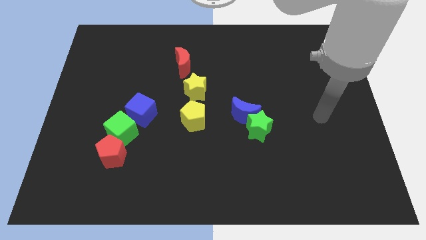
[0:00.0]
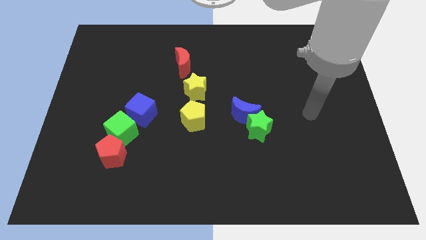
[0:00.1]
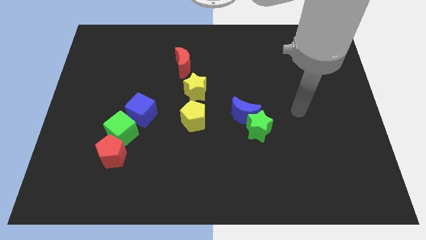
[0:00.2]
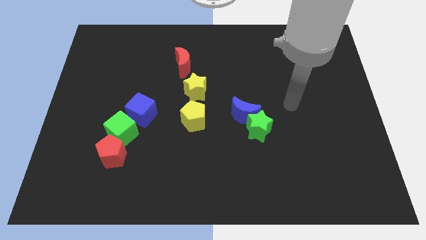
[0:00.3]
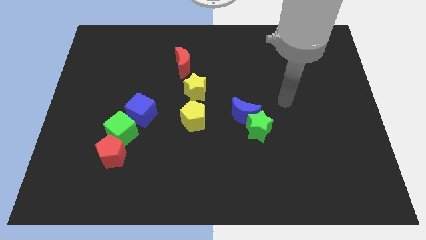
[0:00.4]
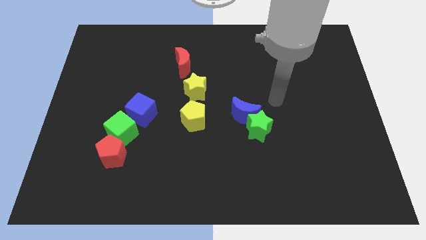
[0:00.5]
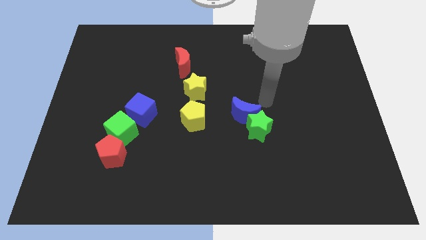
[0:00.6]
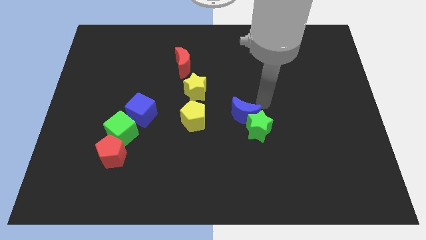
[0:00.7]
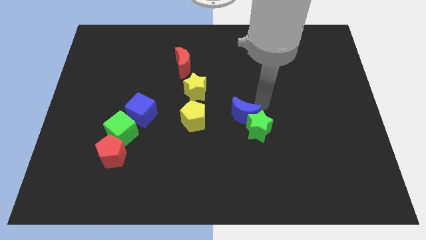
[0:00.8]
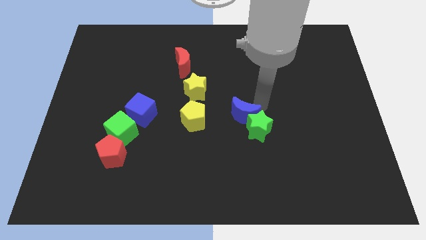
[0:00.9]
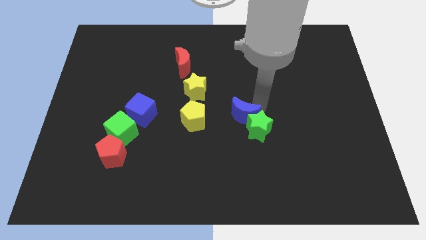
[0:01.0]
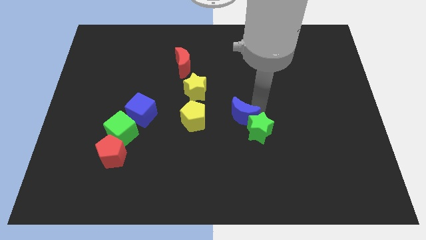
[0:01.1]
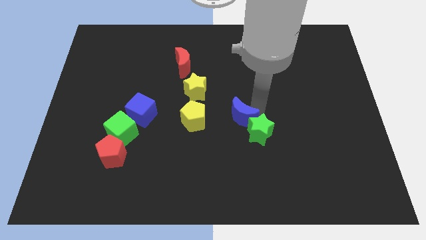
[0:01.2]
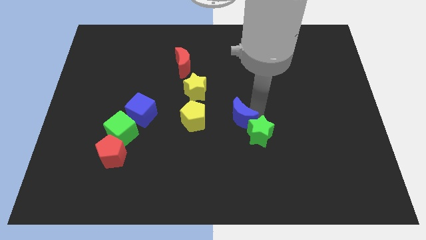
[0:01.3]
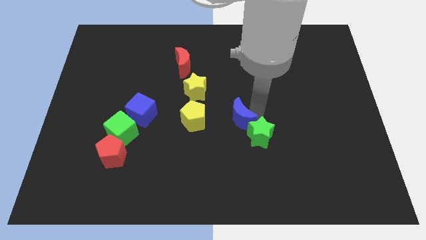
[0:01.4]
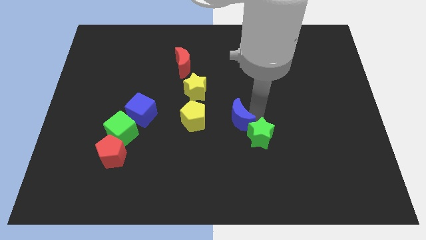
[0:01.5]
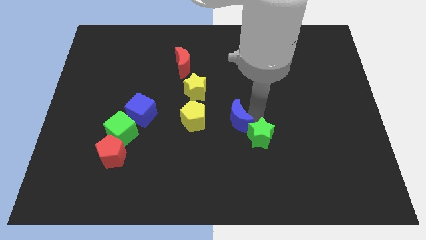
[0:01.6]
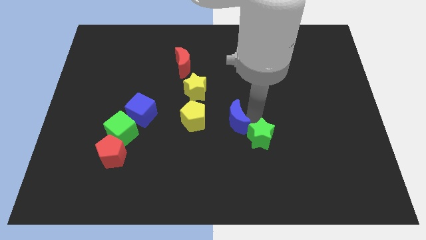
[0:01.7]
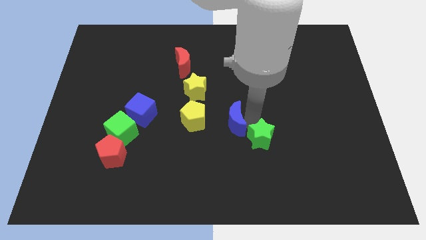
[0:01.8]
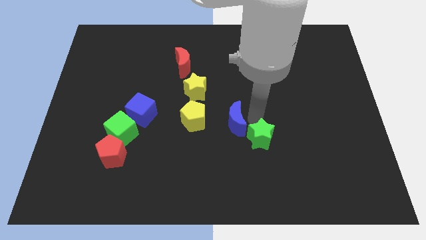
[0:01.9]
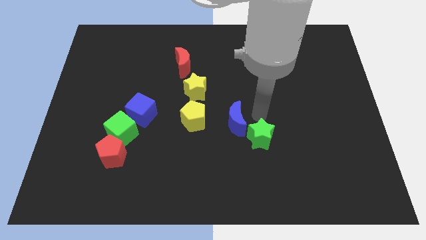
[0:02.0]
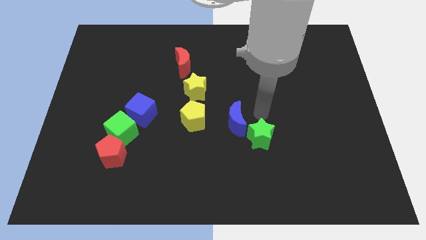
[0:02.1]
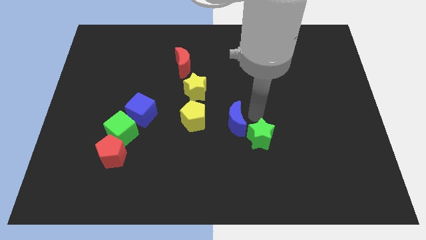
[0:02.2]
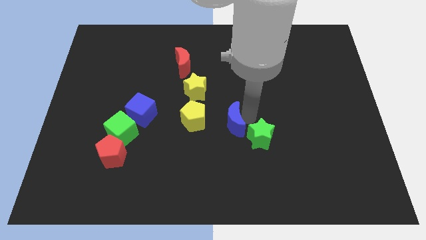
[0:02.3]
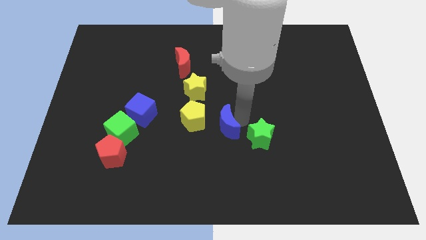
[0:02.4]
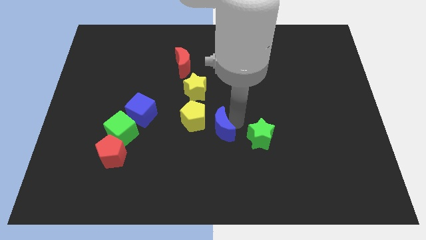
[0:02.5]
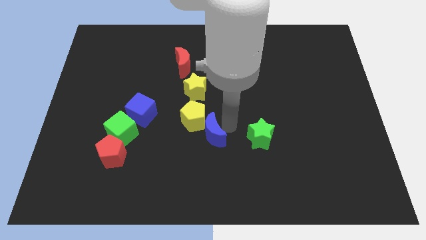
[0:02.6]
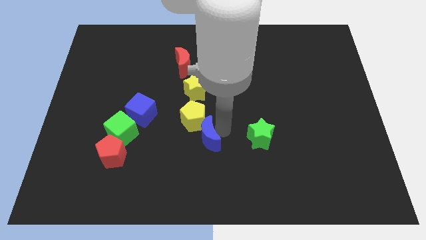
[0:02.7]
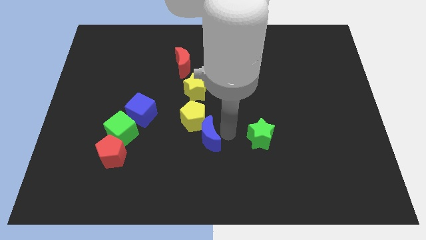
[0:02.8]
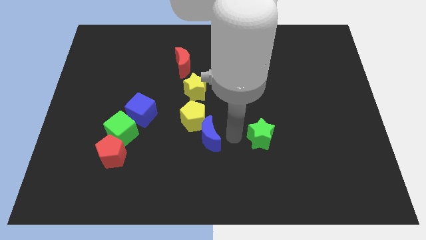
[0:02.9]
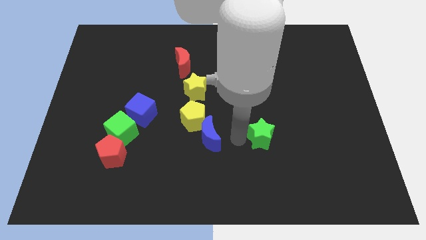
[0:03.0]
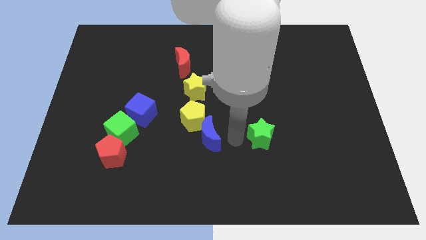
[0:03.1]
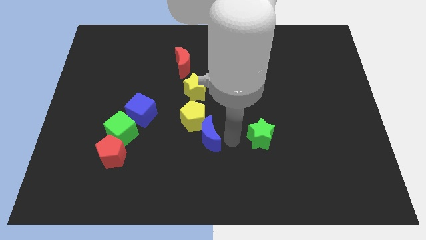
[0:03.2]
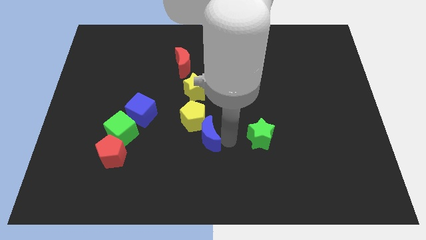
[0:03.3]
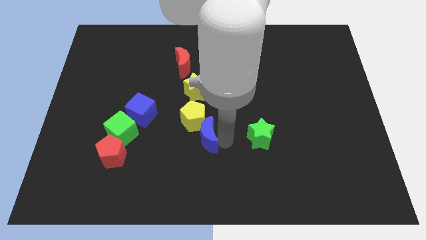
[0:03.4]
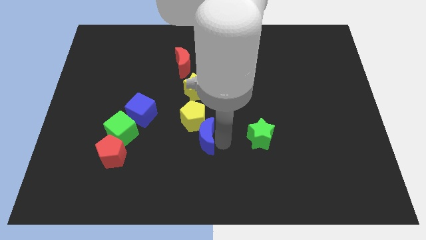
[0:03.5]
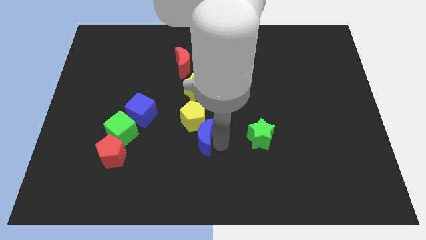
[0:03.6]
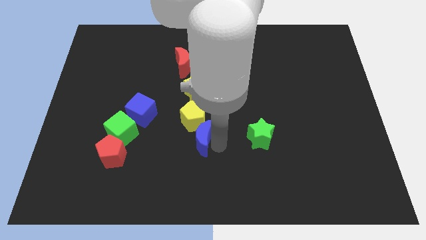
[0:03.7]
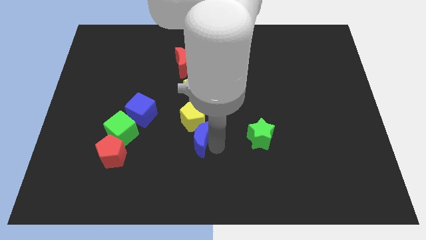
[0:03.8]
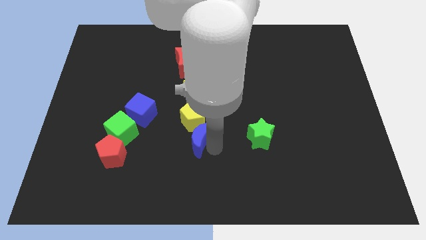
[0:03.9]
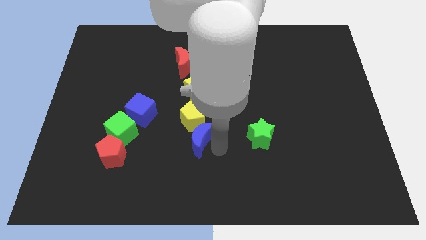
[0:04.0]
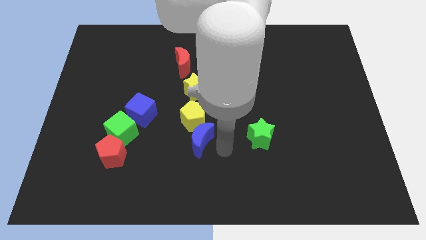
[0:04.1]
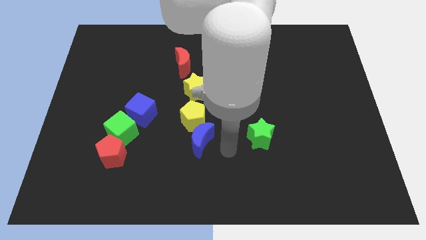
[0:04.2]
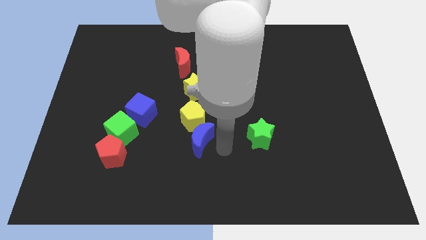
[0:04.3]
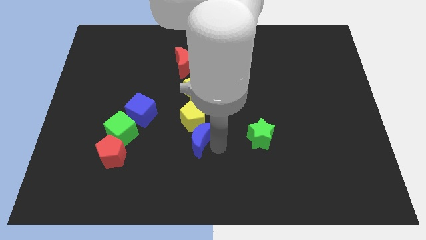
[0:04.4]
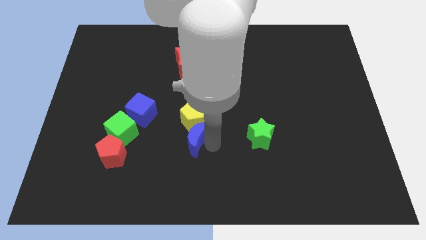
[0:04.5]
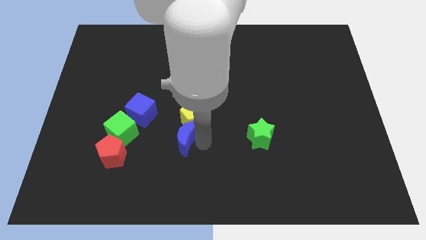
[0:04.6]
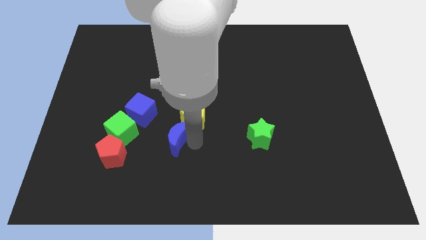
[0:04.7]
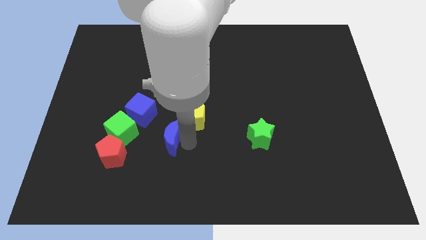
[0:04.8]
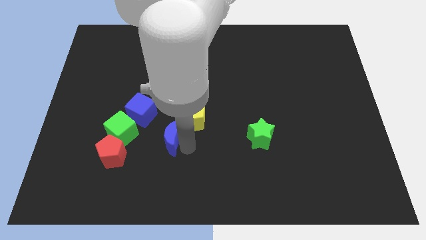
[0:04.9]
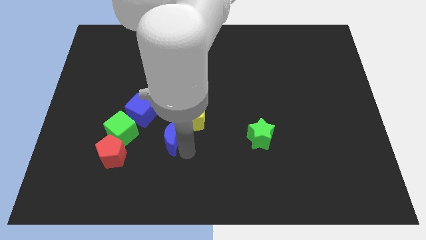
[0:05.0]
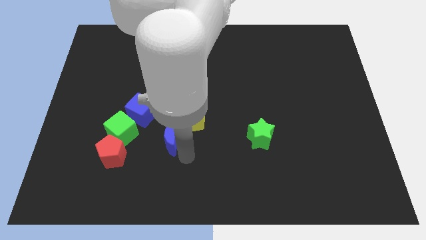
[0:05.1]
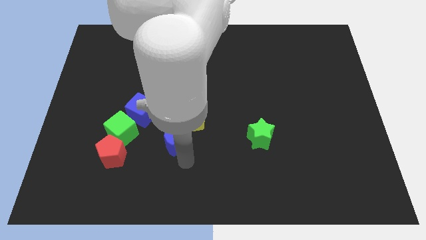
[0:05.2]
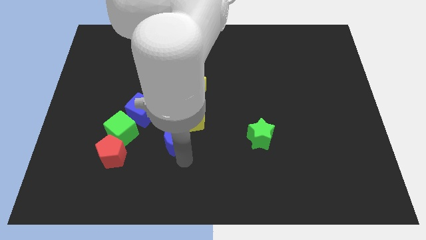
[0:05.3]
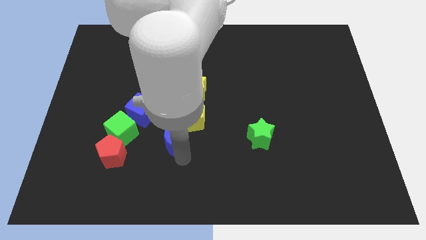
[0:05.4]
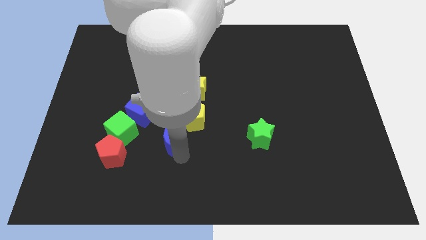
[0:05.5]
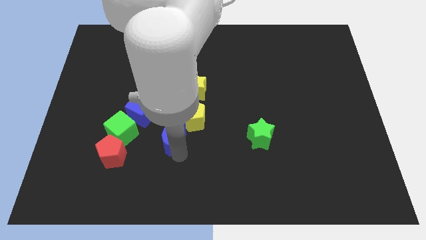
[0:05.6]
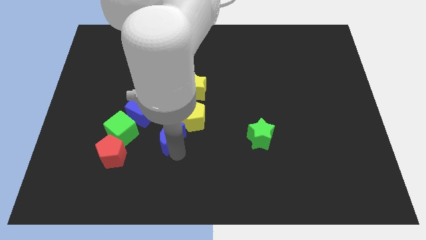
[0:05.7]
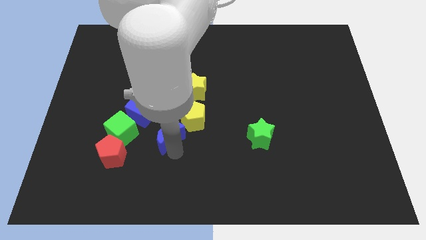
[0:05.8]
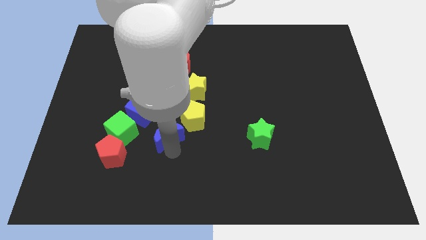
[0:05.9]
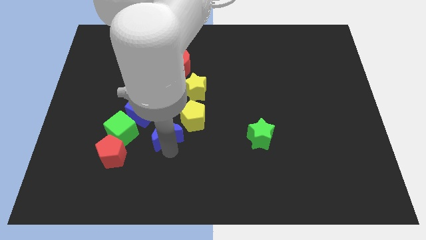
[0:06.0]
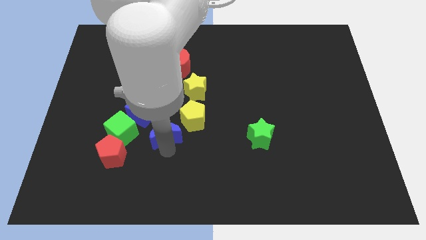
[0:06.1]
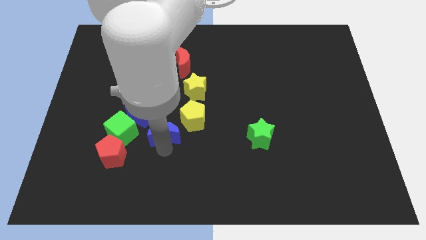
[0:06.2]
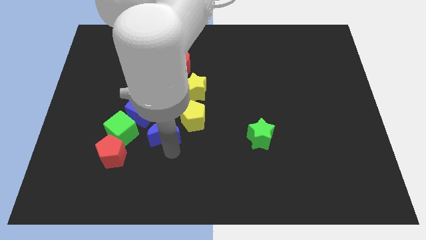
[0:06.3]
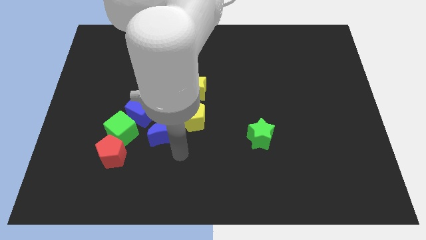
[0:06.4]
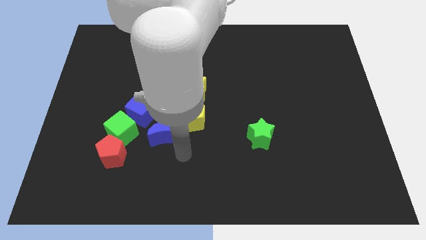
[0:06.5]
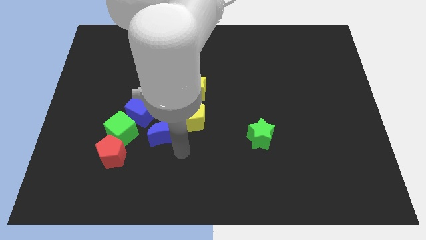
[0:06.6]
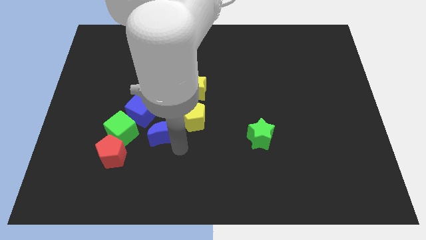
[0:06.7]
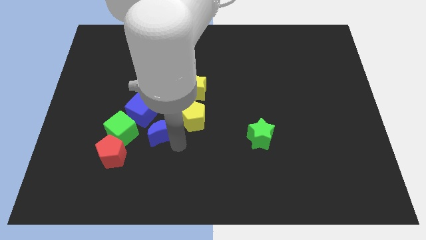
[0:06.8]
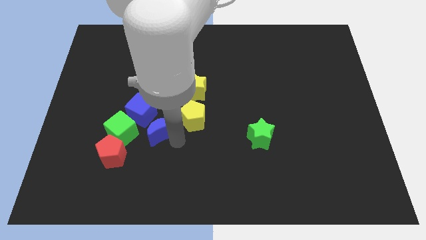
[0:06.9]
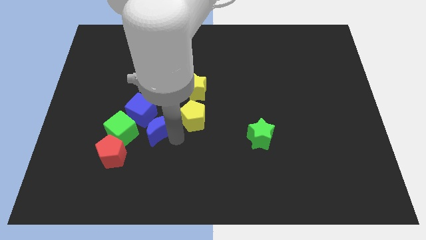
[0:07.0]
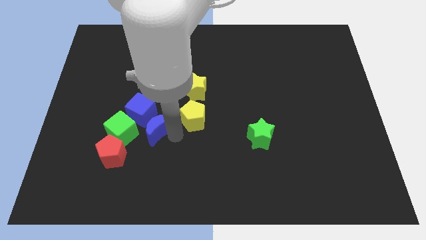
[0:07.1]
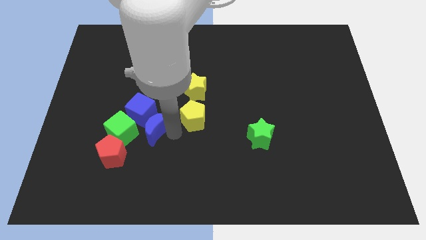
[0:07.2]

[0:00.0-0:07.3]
push the blue moon next to the blue cube
